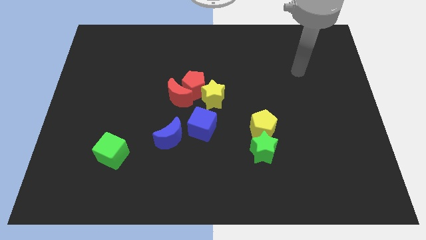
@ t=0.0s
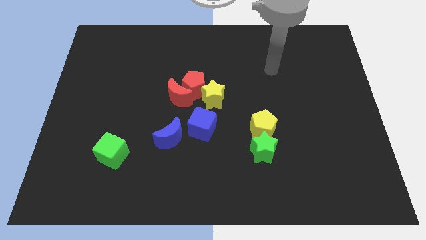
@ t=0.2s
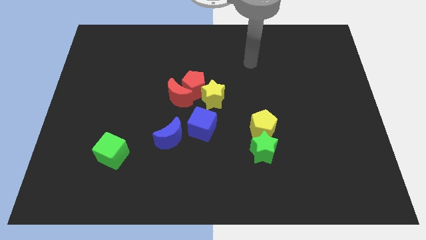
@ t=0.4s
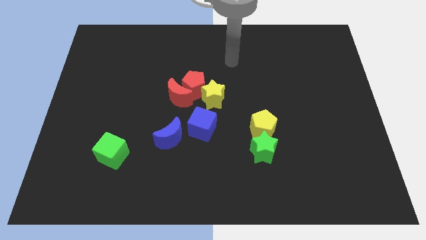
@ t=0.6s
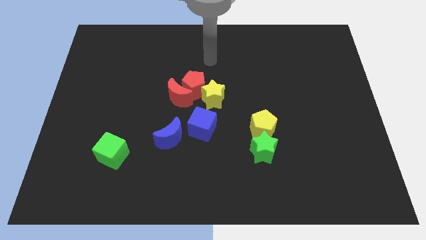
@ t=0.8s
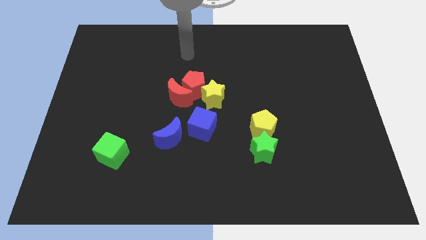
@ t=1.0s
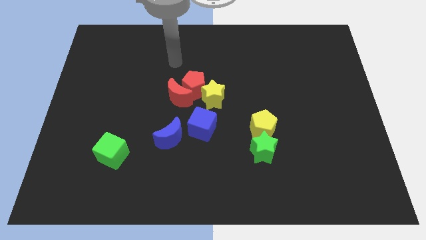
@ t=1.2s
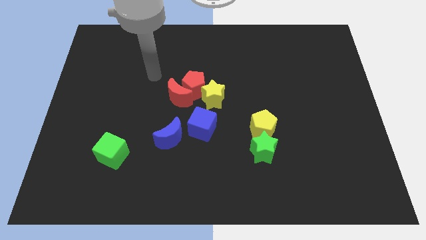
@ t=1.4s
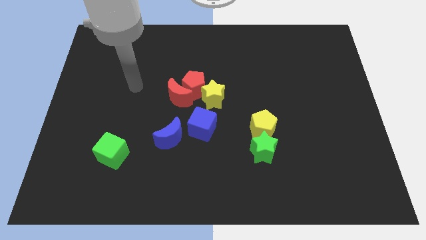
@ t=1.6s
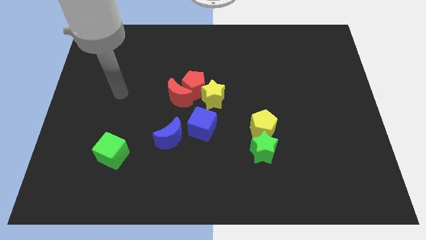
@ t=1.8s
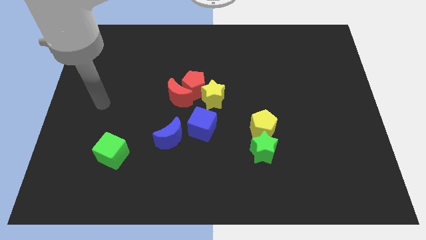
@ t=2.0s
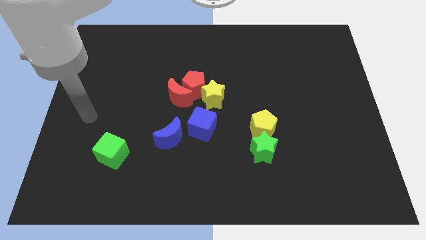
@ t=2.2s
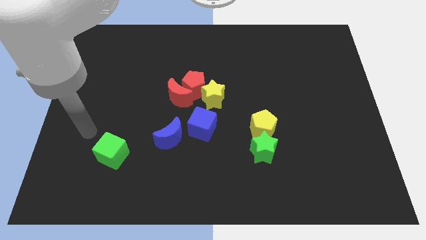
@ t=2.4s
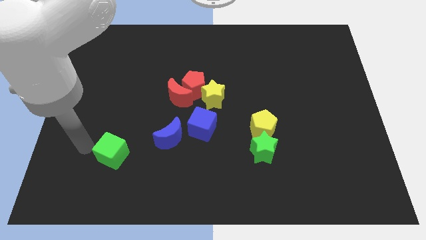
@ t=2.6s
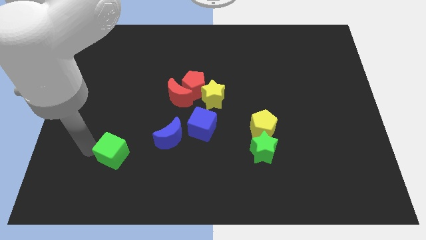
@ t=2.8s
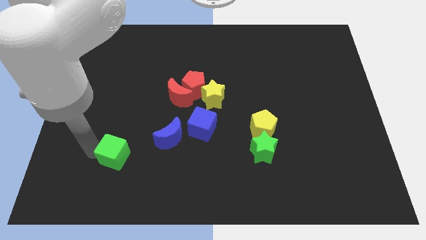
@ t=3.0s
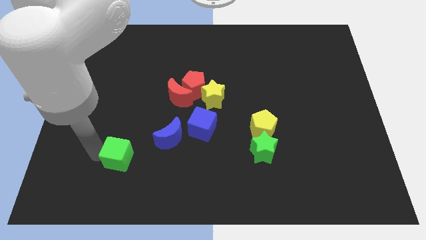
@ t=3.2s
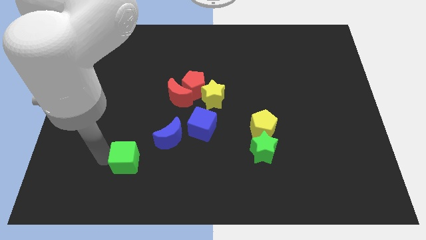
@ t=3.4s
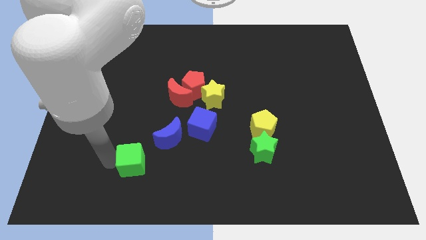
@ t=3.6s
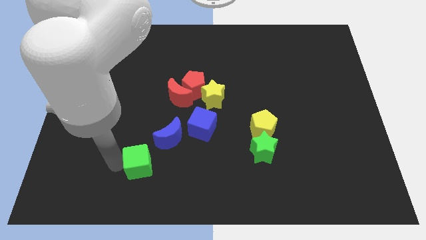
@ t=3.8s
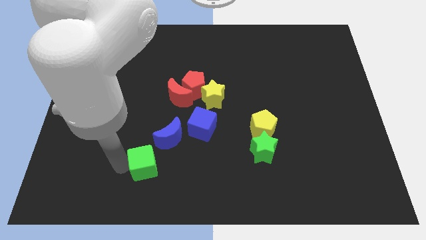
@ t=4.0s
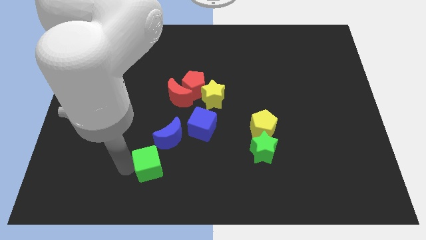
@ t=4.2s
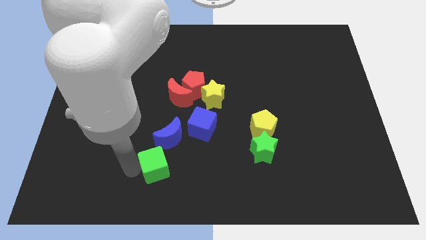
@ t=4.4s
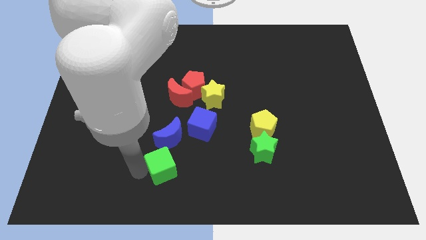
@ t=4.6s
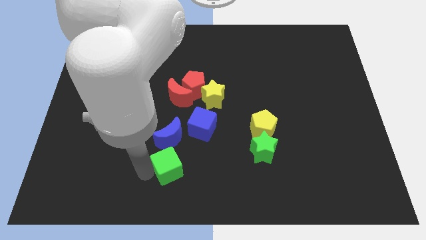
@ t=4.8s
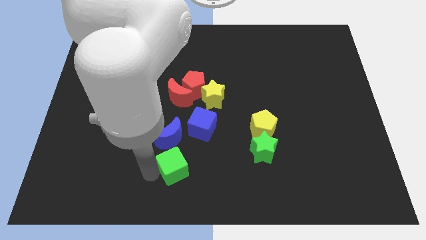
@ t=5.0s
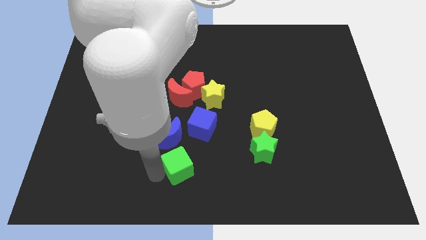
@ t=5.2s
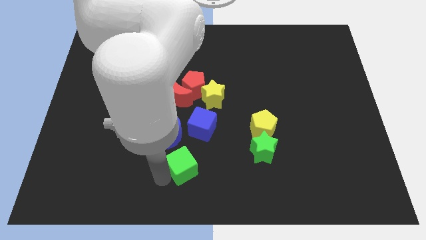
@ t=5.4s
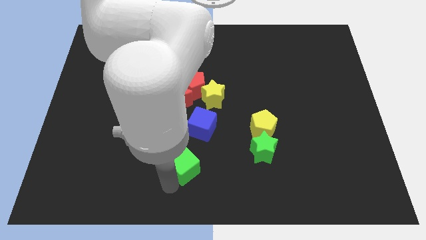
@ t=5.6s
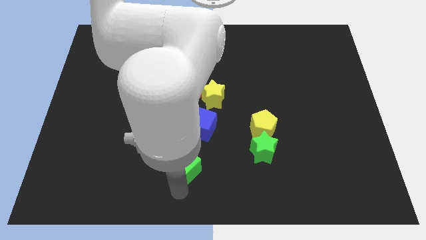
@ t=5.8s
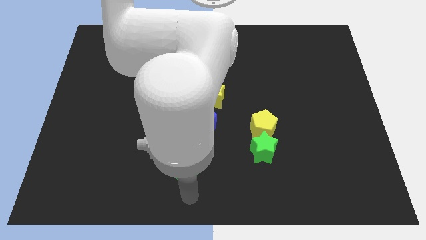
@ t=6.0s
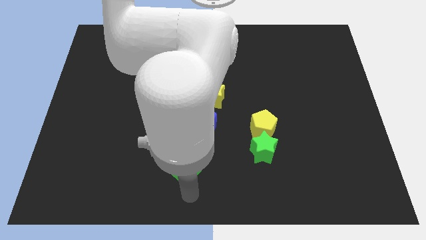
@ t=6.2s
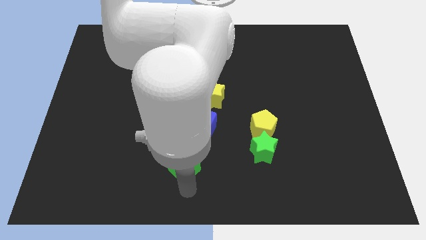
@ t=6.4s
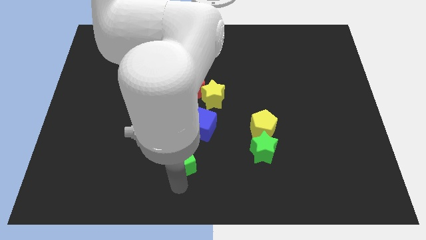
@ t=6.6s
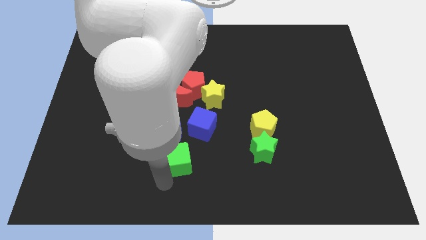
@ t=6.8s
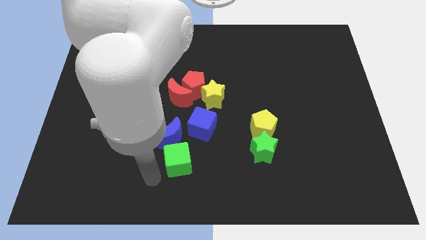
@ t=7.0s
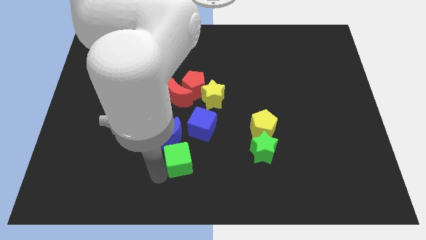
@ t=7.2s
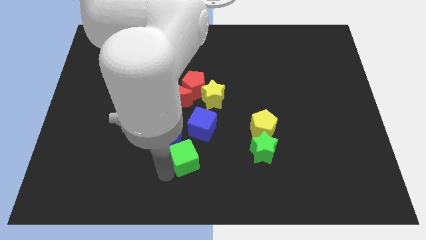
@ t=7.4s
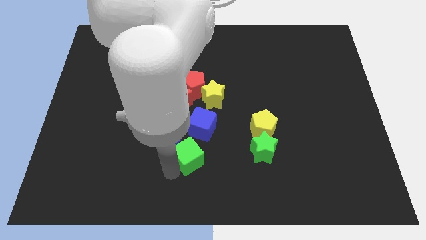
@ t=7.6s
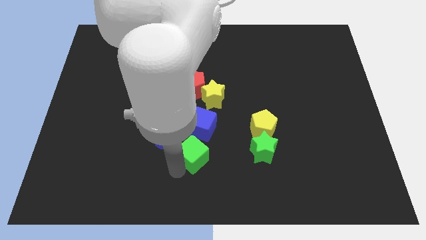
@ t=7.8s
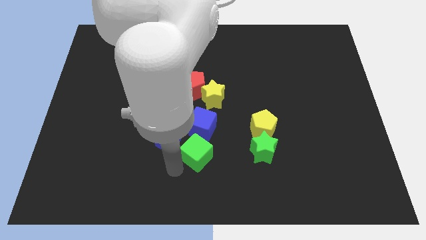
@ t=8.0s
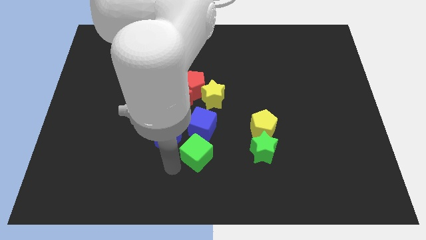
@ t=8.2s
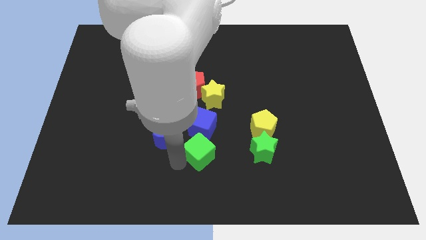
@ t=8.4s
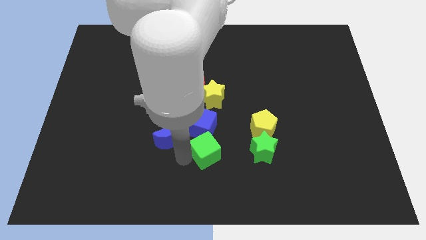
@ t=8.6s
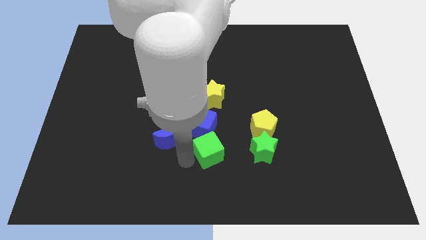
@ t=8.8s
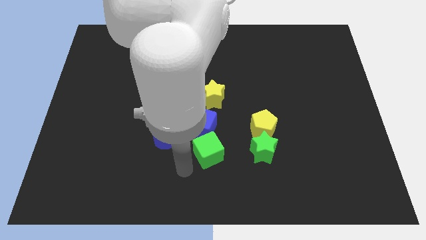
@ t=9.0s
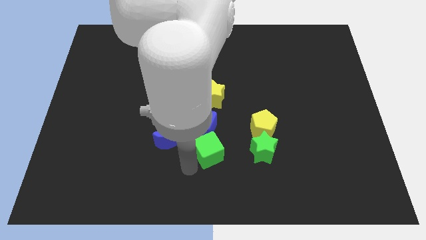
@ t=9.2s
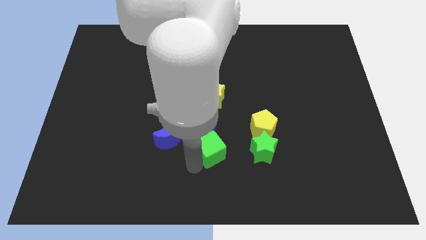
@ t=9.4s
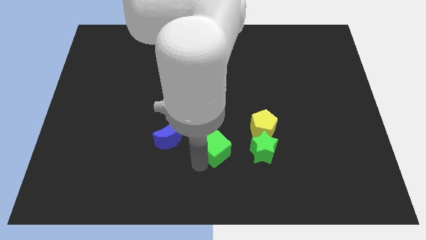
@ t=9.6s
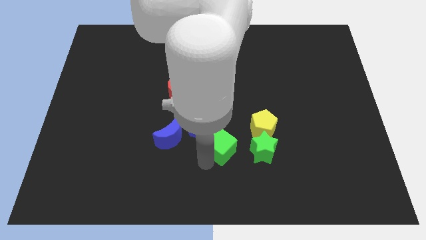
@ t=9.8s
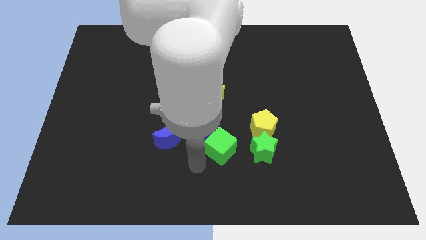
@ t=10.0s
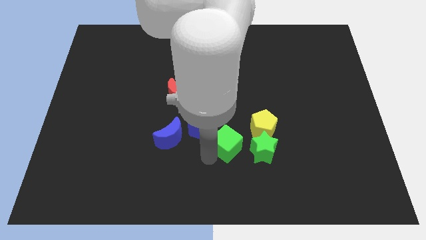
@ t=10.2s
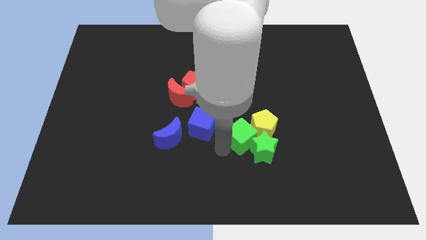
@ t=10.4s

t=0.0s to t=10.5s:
push the green cube close to the yellow pentagon

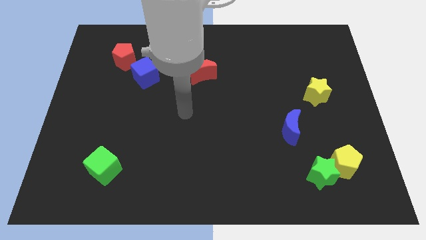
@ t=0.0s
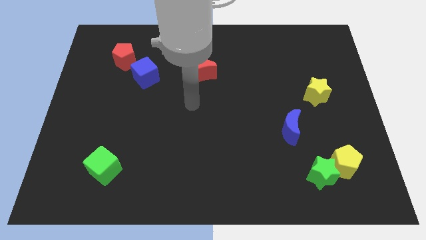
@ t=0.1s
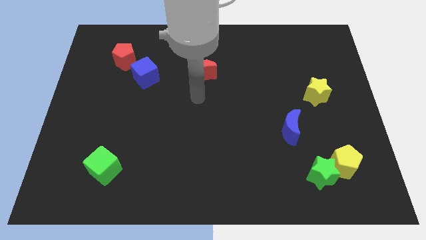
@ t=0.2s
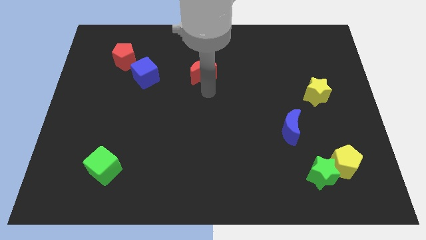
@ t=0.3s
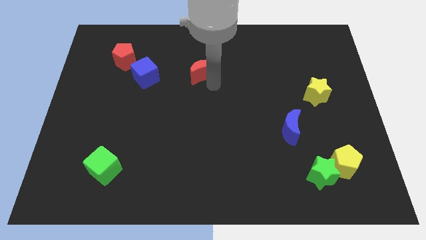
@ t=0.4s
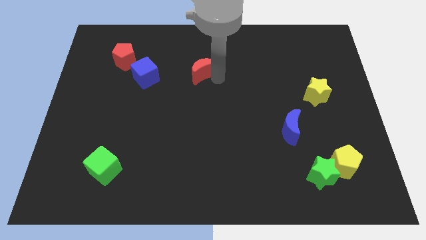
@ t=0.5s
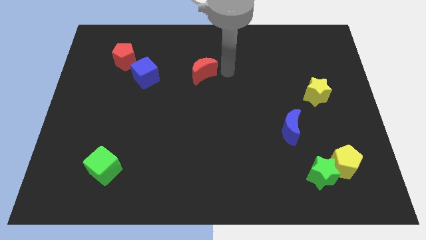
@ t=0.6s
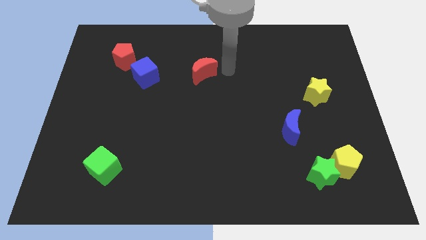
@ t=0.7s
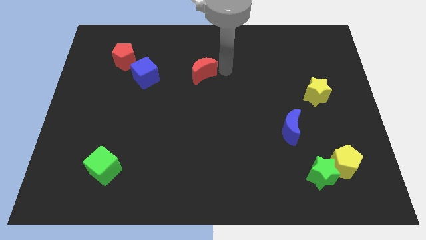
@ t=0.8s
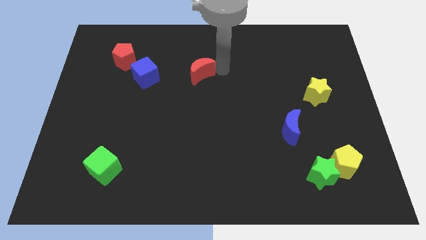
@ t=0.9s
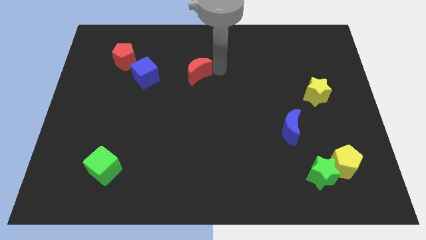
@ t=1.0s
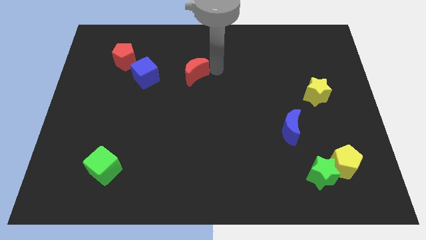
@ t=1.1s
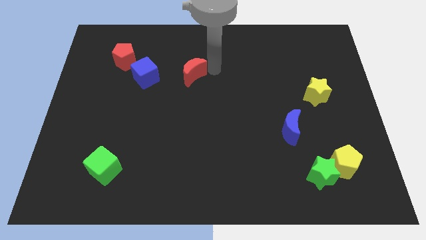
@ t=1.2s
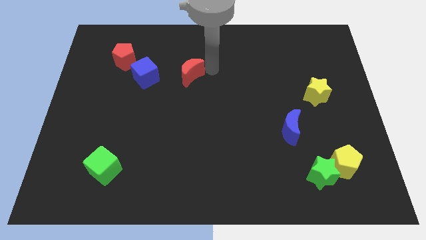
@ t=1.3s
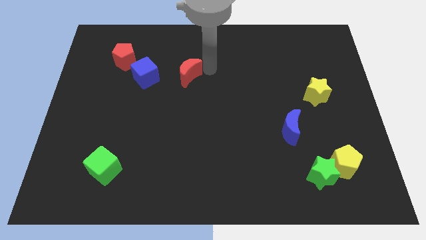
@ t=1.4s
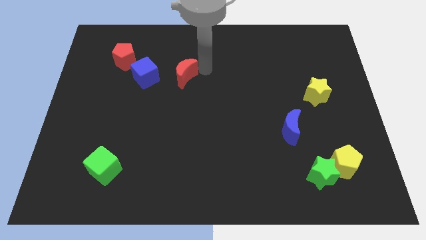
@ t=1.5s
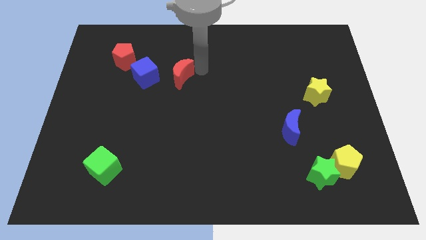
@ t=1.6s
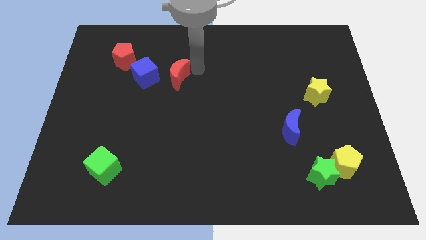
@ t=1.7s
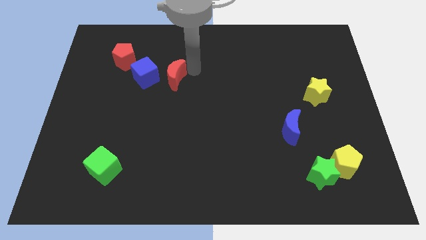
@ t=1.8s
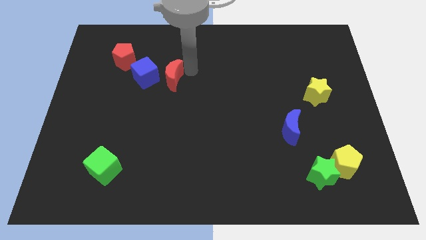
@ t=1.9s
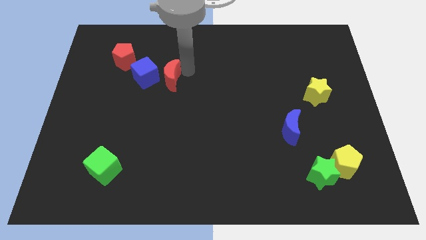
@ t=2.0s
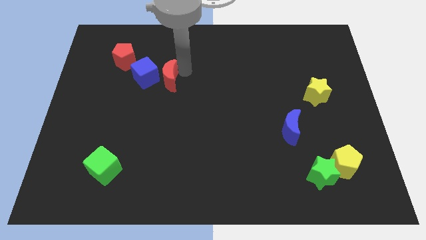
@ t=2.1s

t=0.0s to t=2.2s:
move the red moon next to the blue cube

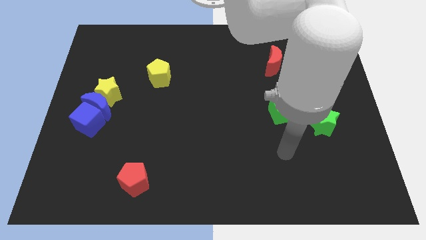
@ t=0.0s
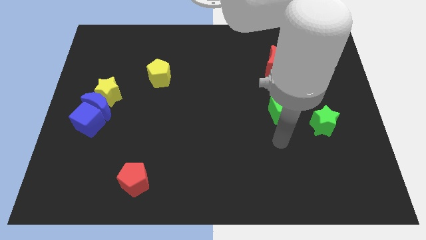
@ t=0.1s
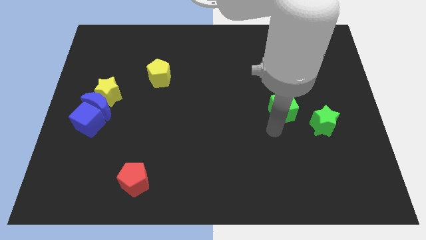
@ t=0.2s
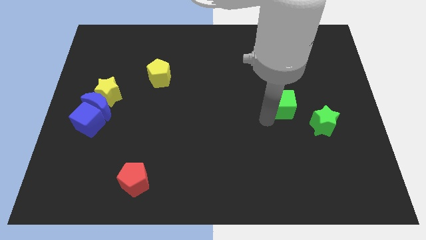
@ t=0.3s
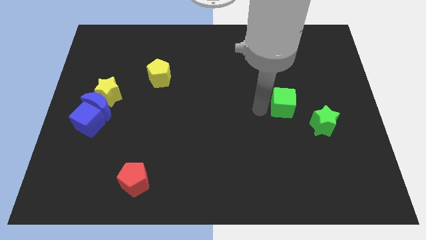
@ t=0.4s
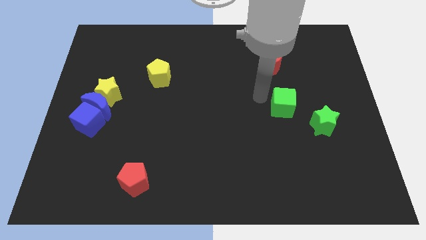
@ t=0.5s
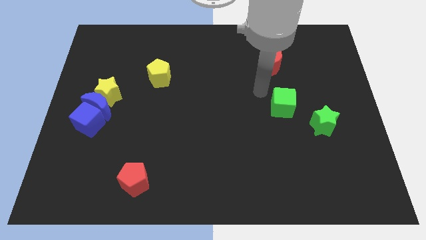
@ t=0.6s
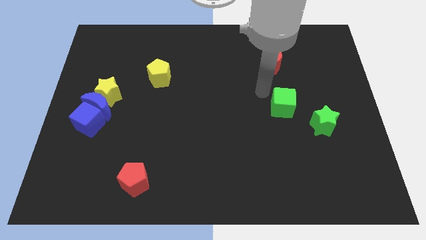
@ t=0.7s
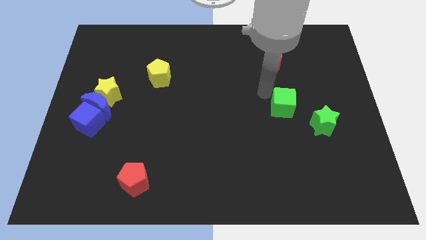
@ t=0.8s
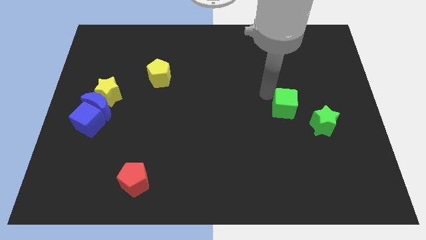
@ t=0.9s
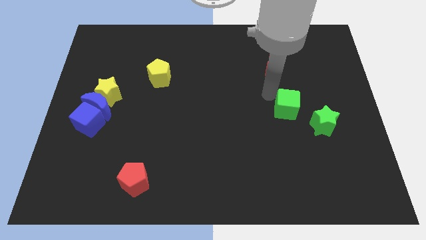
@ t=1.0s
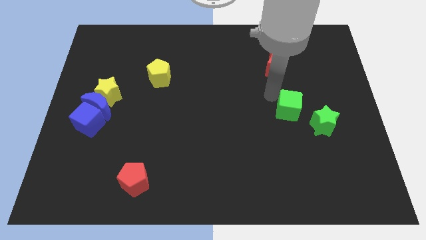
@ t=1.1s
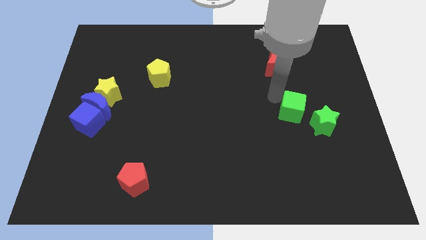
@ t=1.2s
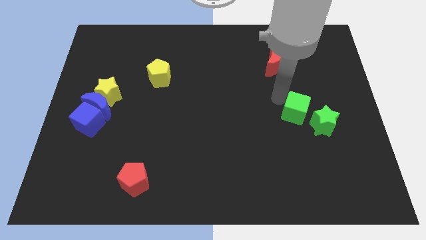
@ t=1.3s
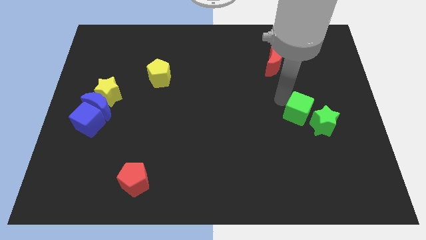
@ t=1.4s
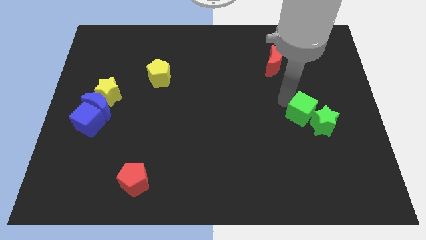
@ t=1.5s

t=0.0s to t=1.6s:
put the green cube to the green star
